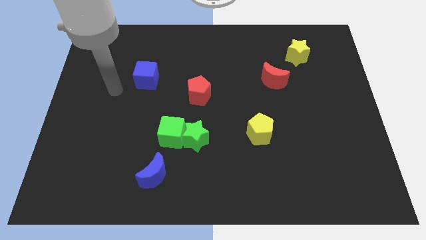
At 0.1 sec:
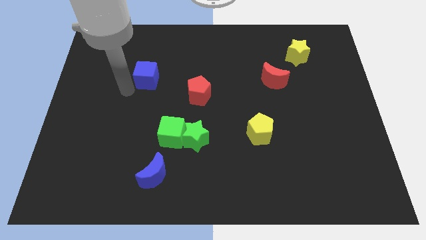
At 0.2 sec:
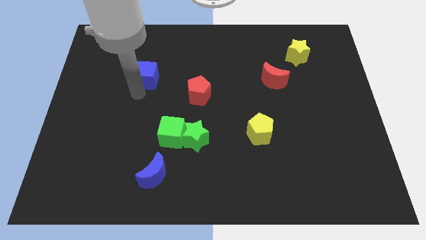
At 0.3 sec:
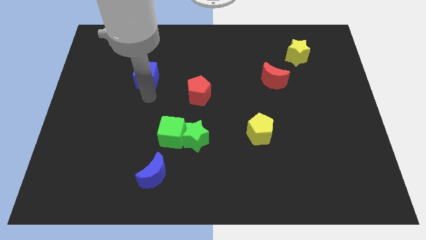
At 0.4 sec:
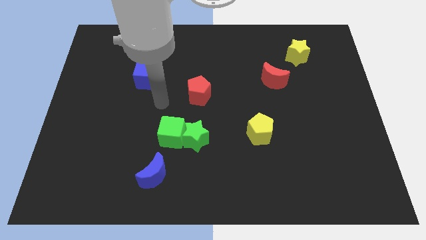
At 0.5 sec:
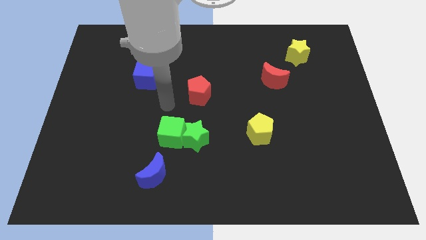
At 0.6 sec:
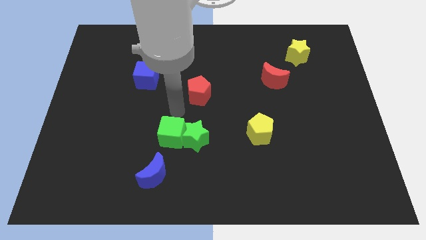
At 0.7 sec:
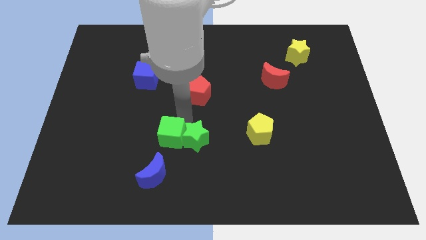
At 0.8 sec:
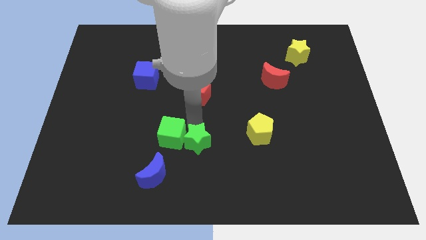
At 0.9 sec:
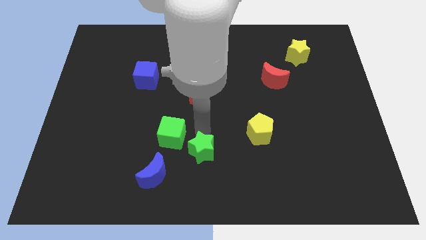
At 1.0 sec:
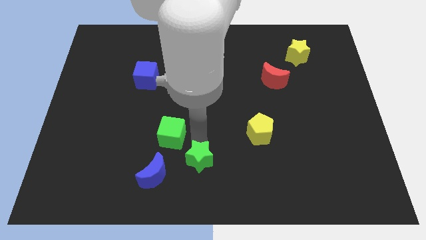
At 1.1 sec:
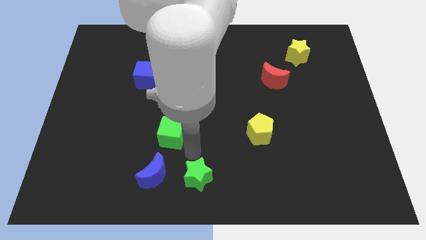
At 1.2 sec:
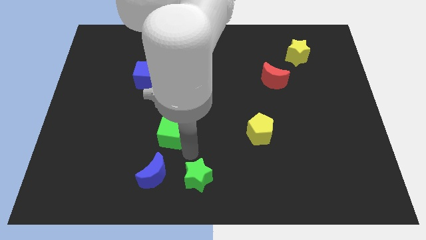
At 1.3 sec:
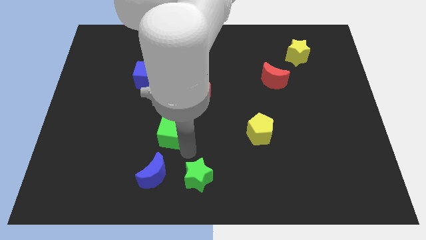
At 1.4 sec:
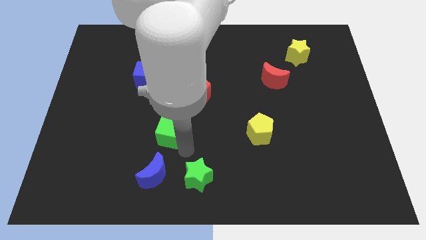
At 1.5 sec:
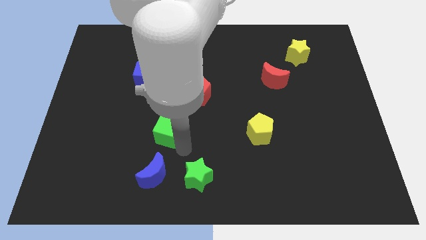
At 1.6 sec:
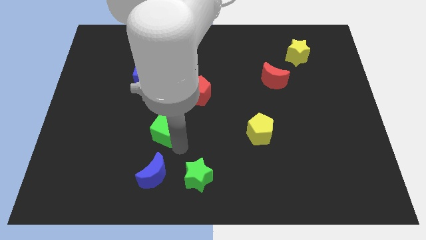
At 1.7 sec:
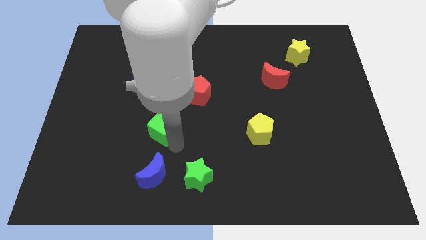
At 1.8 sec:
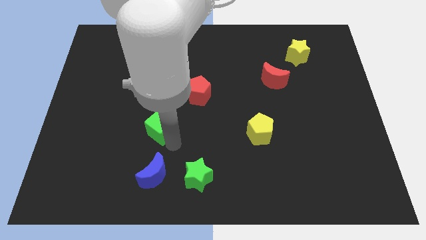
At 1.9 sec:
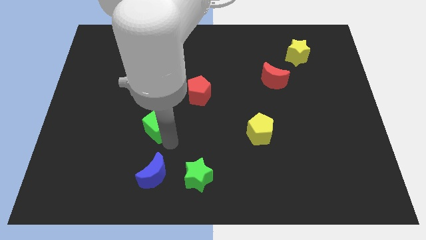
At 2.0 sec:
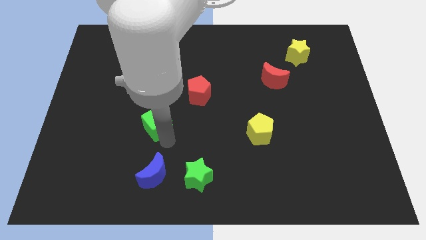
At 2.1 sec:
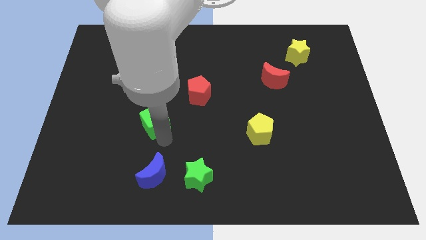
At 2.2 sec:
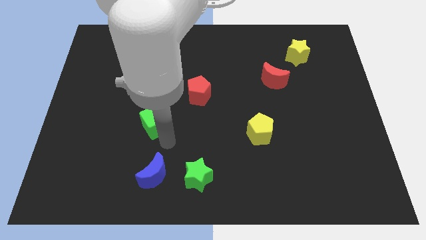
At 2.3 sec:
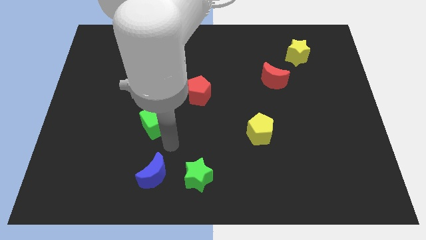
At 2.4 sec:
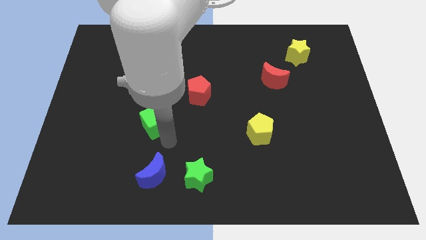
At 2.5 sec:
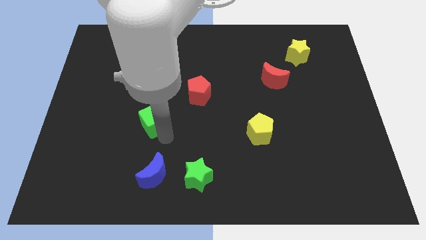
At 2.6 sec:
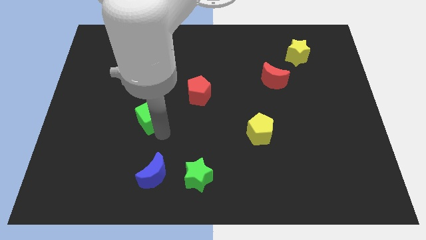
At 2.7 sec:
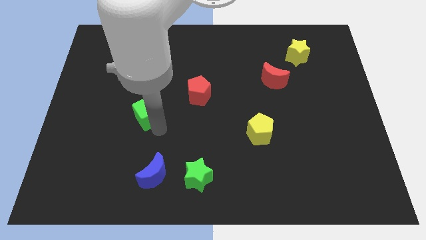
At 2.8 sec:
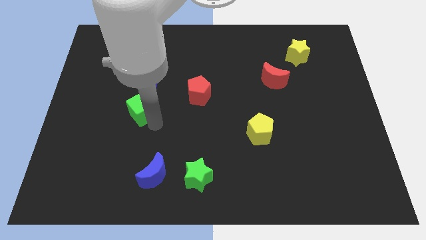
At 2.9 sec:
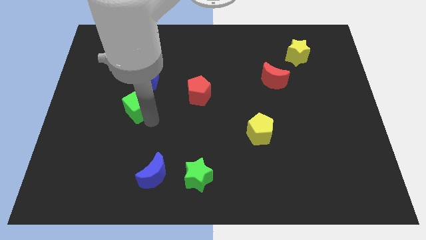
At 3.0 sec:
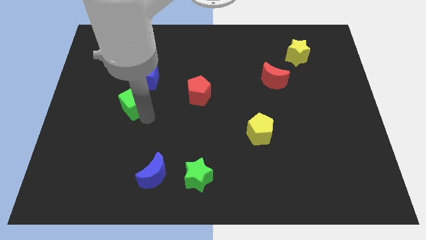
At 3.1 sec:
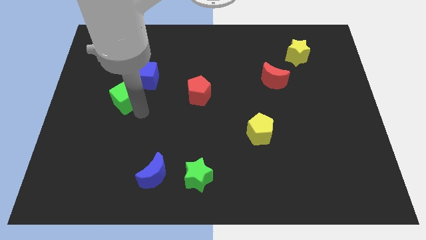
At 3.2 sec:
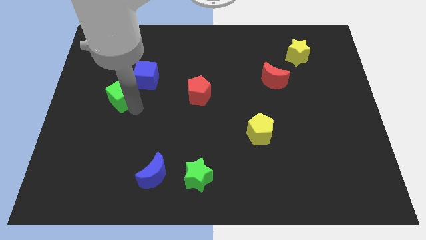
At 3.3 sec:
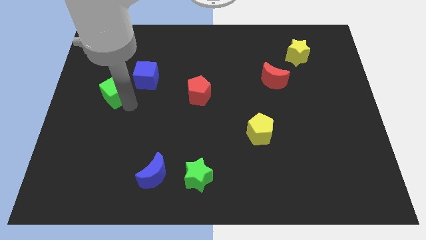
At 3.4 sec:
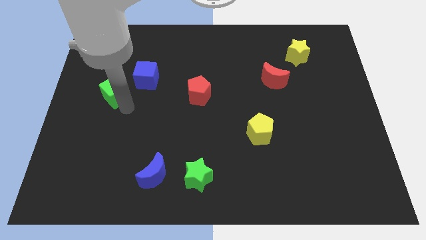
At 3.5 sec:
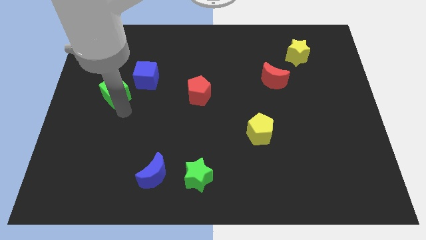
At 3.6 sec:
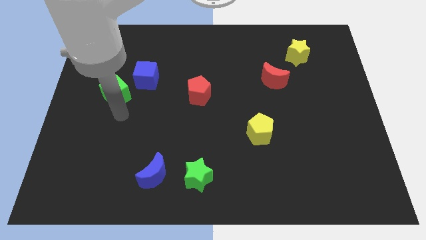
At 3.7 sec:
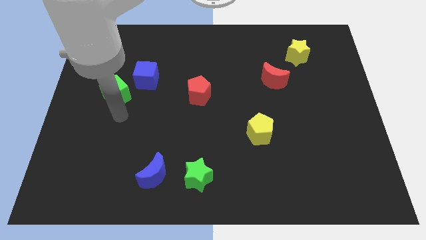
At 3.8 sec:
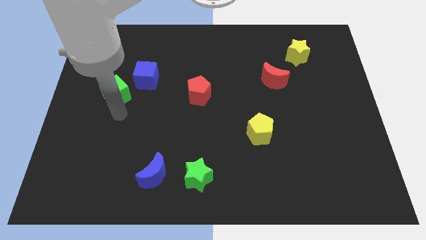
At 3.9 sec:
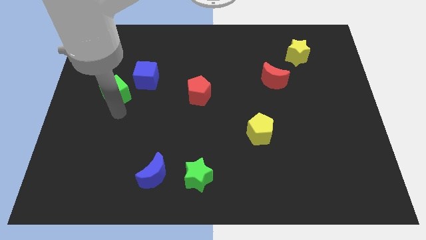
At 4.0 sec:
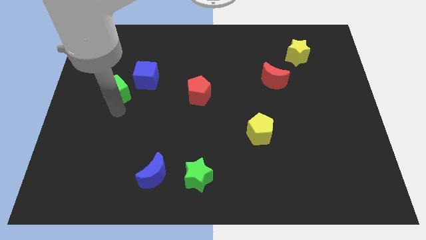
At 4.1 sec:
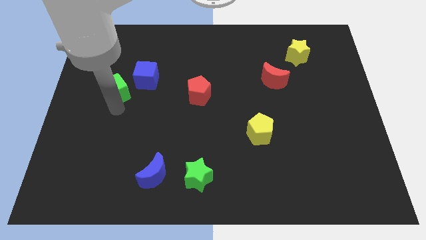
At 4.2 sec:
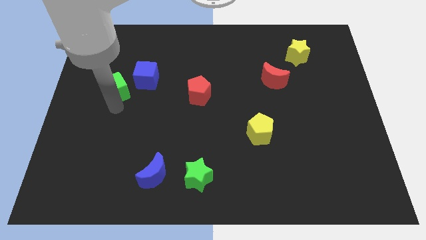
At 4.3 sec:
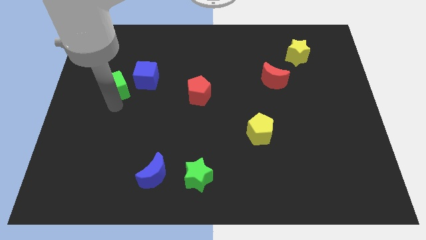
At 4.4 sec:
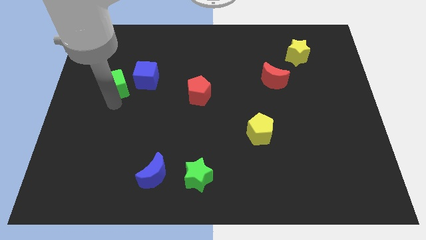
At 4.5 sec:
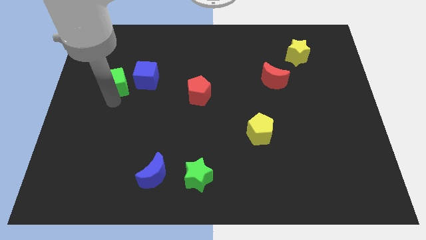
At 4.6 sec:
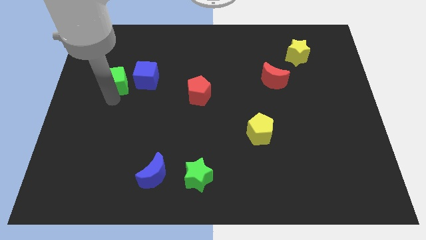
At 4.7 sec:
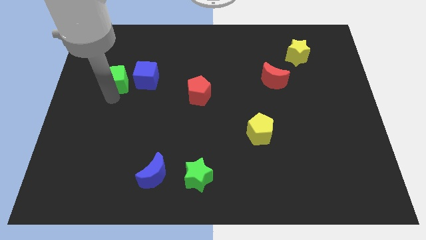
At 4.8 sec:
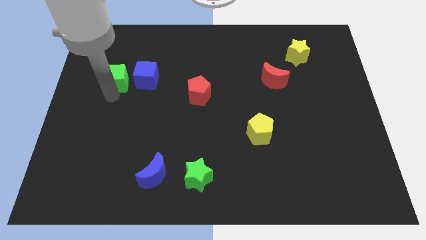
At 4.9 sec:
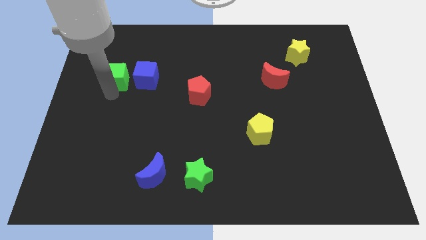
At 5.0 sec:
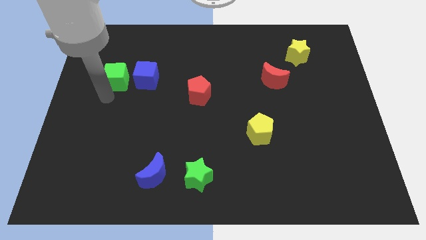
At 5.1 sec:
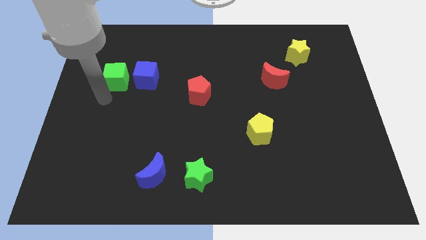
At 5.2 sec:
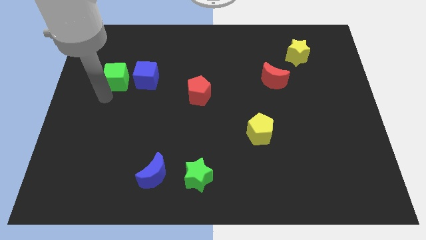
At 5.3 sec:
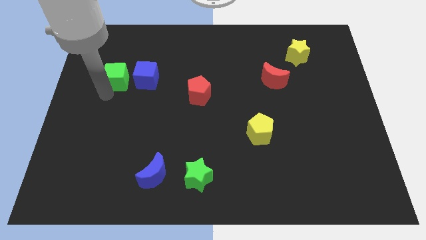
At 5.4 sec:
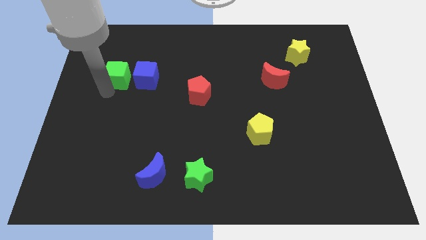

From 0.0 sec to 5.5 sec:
push the green cube diagonally up and to the left of the blue cube

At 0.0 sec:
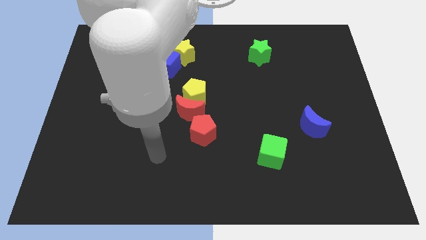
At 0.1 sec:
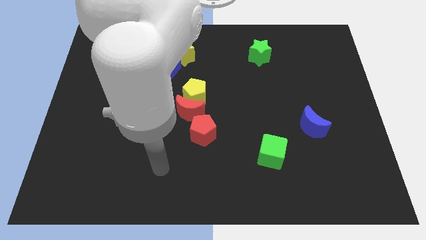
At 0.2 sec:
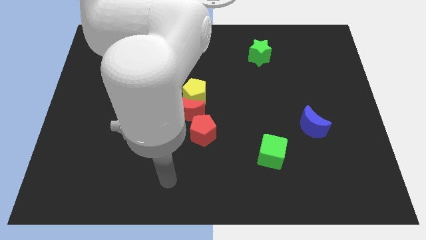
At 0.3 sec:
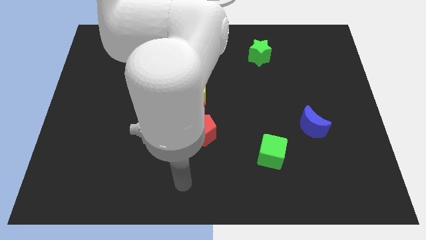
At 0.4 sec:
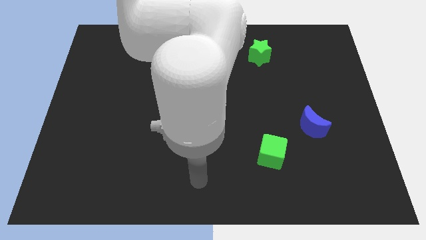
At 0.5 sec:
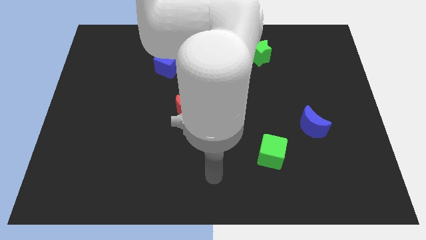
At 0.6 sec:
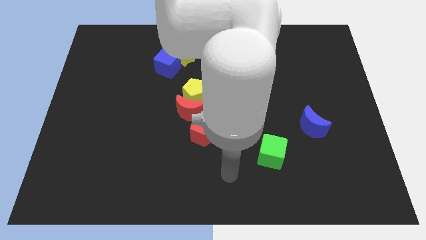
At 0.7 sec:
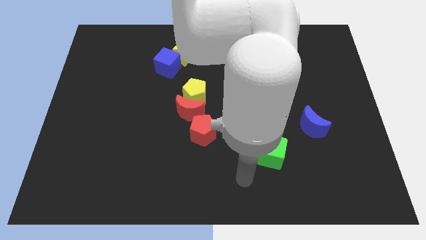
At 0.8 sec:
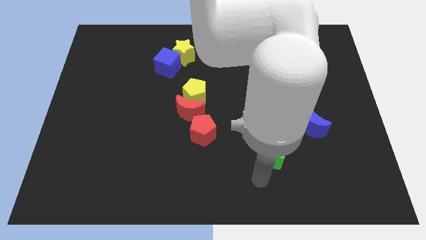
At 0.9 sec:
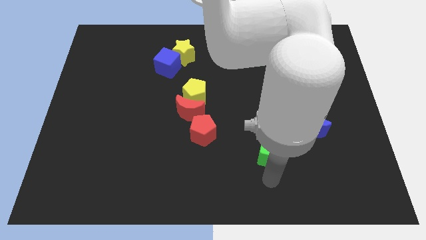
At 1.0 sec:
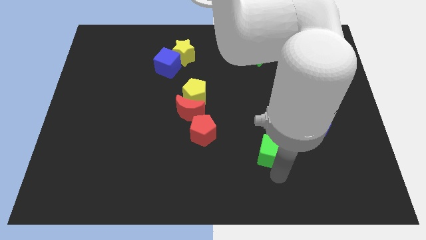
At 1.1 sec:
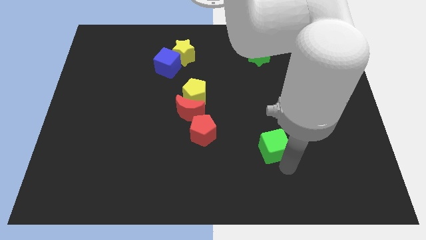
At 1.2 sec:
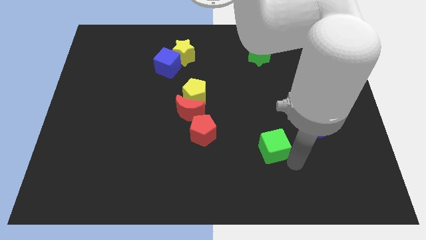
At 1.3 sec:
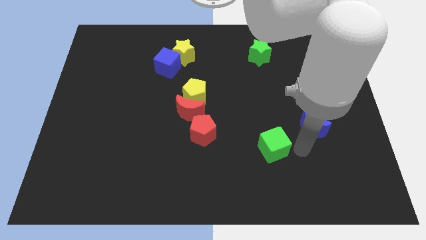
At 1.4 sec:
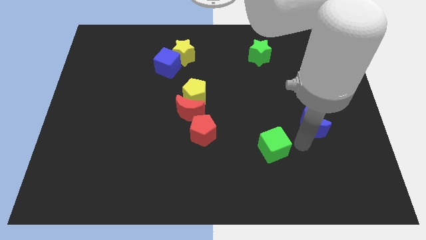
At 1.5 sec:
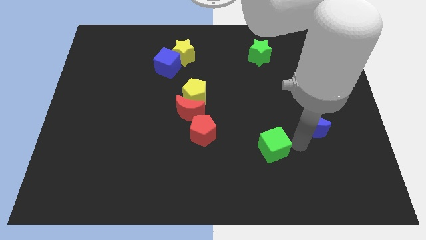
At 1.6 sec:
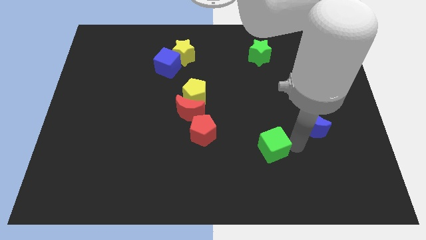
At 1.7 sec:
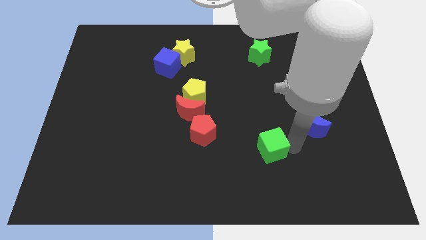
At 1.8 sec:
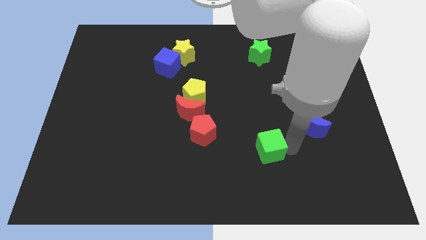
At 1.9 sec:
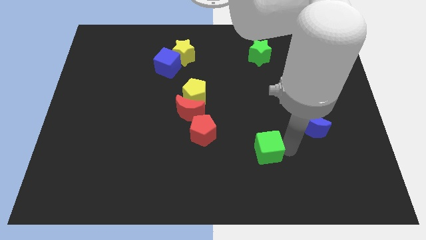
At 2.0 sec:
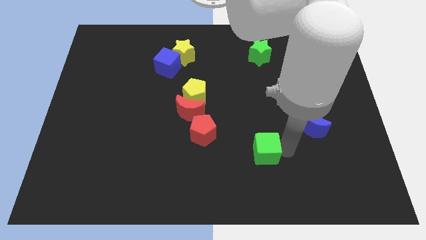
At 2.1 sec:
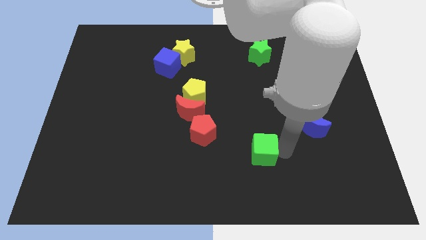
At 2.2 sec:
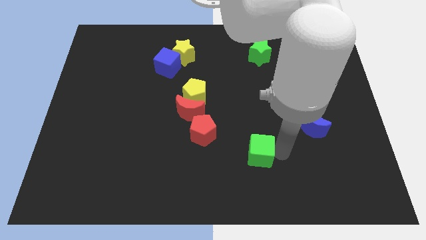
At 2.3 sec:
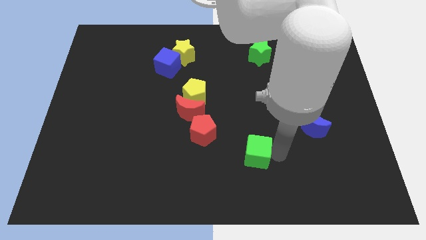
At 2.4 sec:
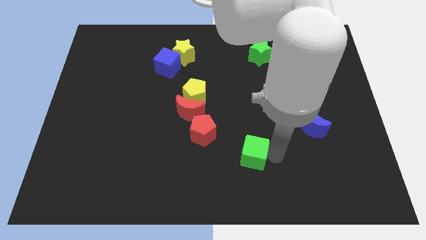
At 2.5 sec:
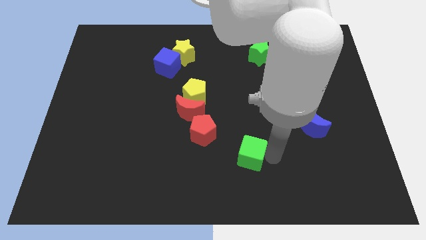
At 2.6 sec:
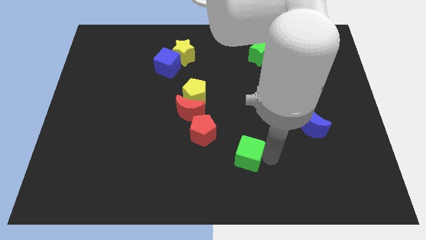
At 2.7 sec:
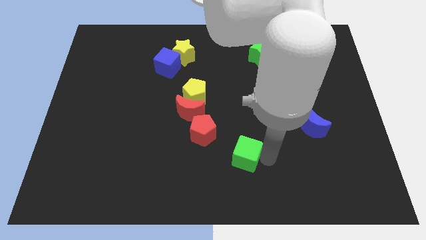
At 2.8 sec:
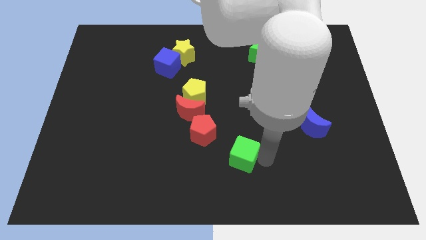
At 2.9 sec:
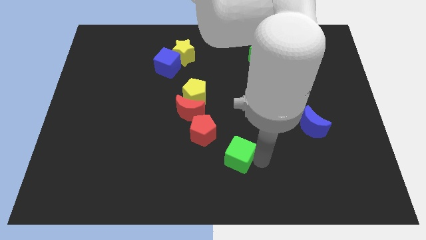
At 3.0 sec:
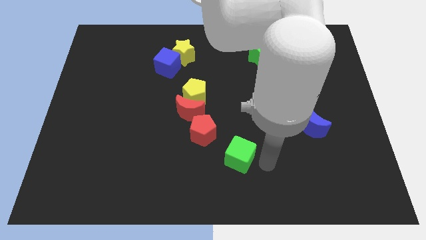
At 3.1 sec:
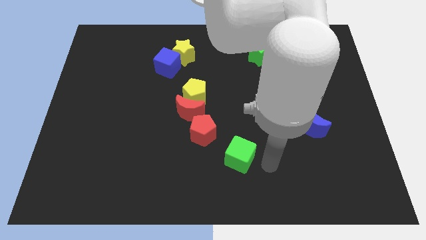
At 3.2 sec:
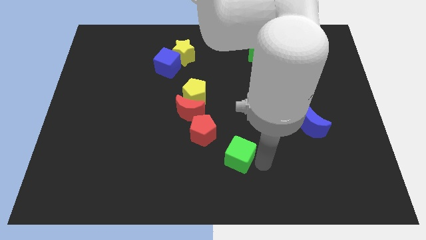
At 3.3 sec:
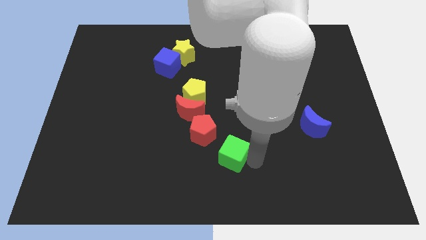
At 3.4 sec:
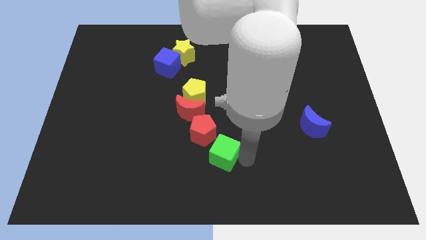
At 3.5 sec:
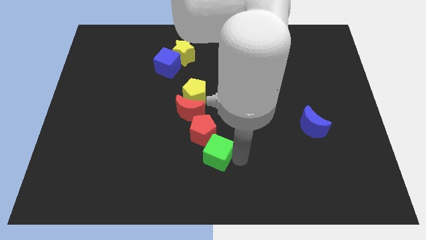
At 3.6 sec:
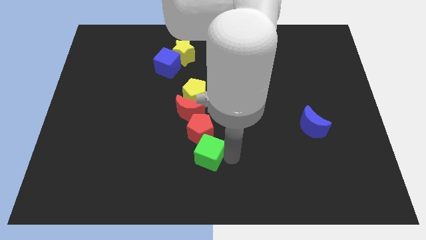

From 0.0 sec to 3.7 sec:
move the green cube below the red moon
